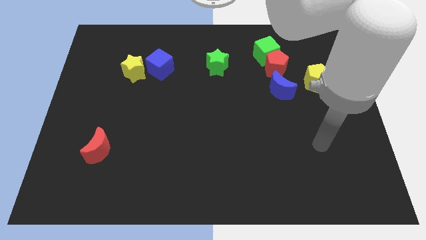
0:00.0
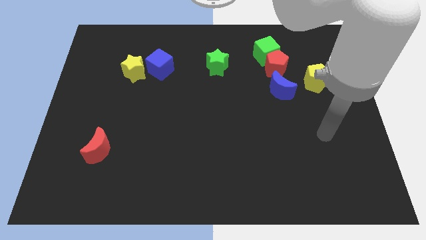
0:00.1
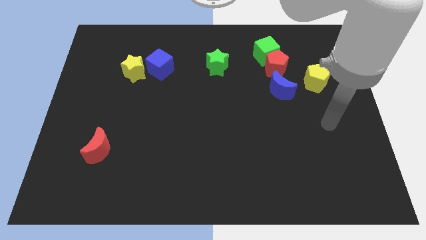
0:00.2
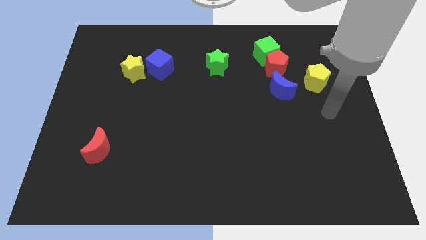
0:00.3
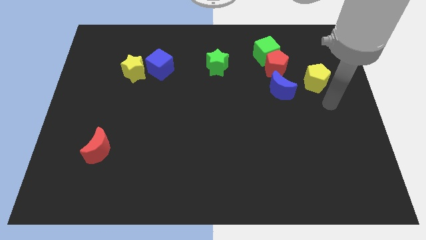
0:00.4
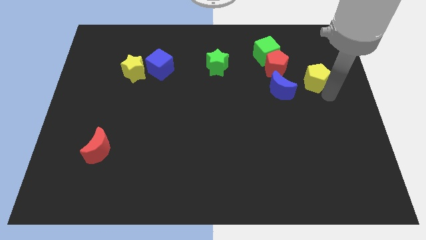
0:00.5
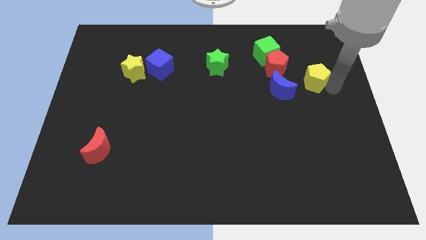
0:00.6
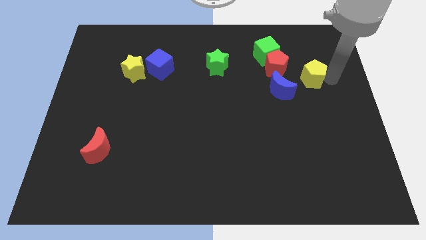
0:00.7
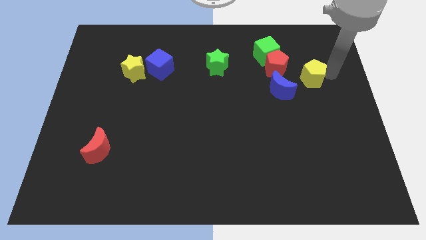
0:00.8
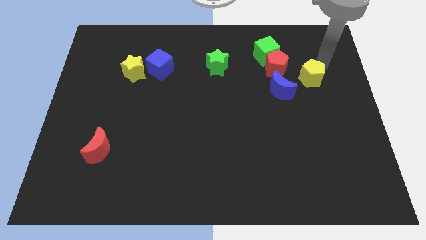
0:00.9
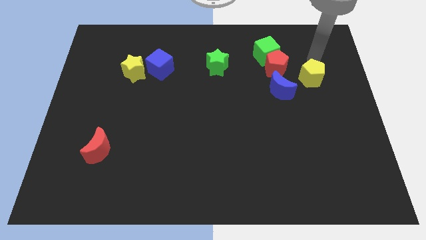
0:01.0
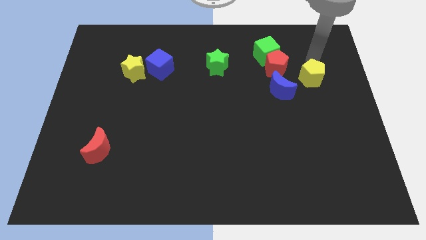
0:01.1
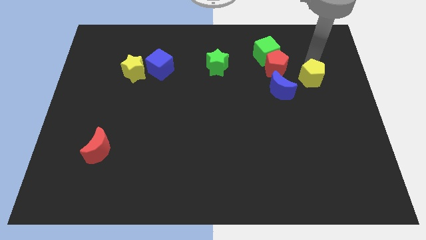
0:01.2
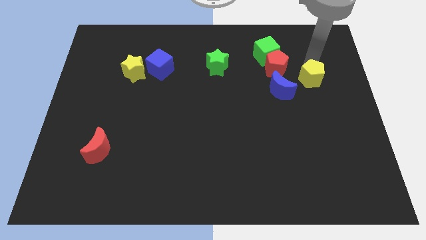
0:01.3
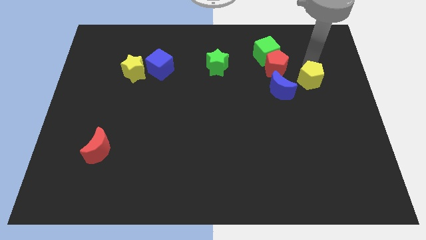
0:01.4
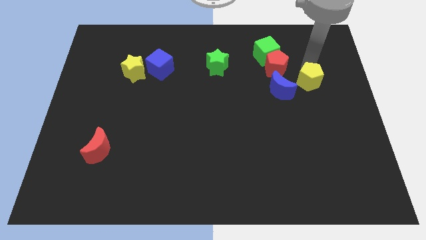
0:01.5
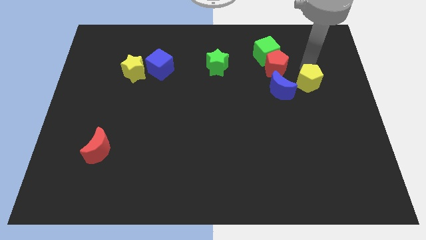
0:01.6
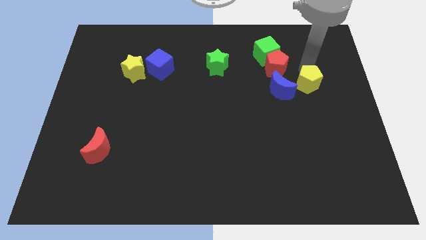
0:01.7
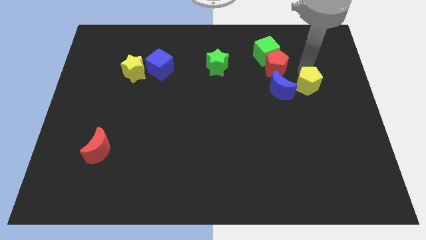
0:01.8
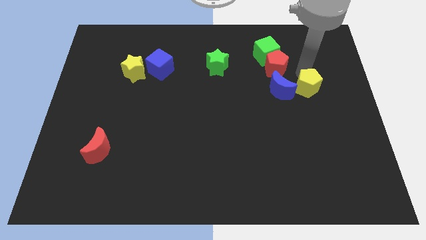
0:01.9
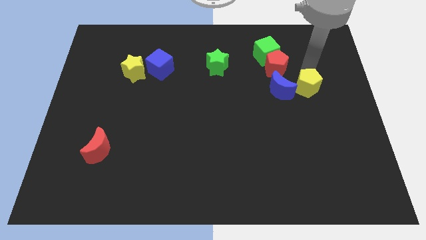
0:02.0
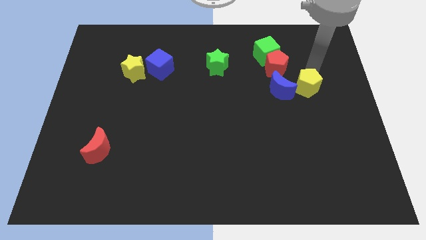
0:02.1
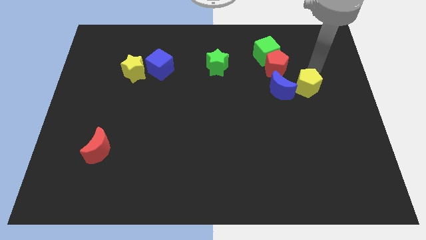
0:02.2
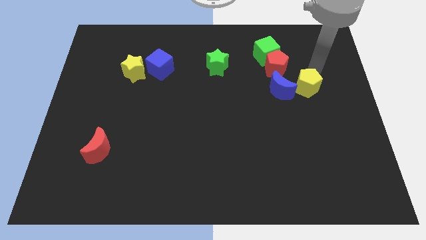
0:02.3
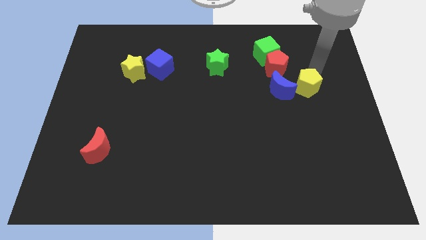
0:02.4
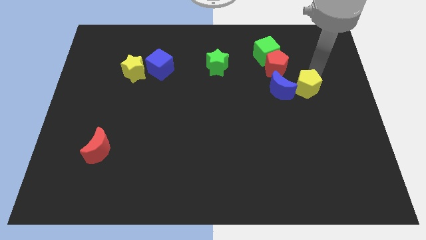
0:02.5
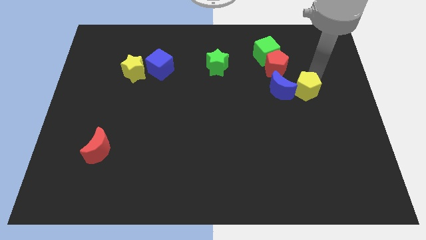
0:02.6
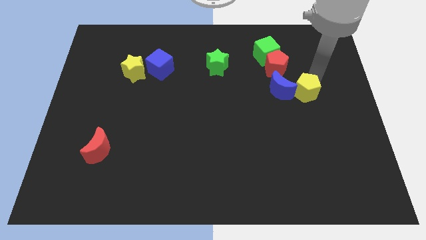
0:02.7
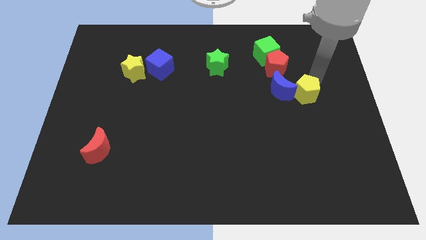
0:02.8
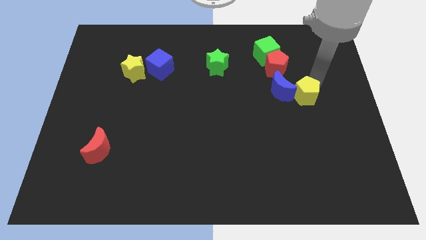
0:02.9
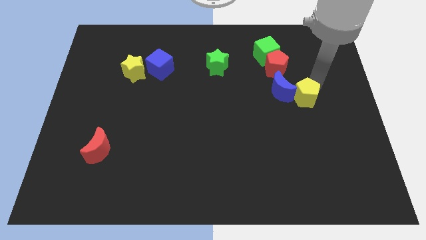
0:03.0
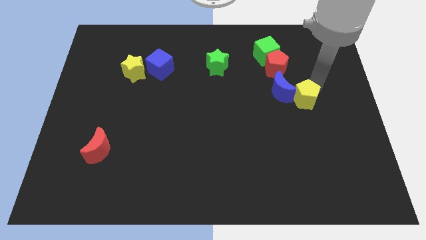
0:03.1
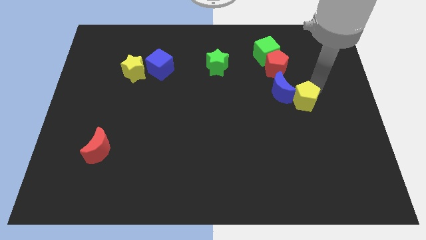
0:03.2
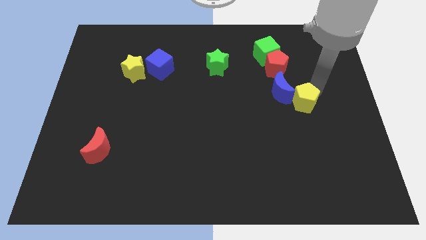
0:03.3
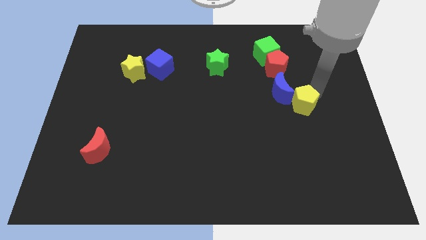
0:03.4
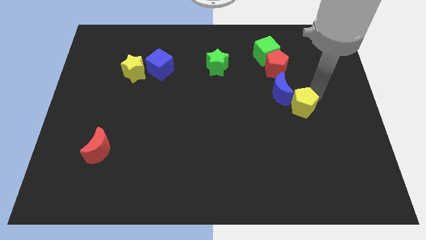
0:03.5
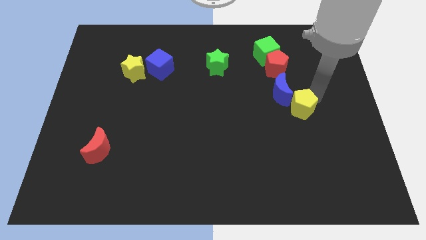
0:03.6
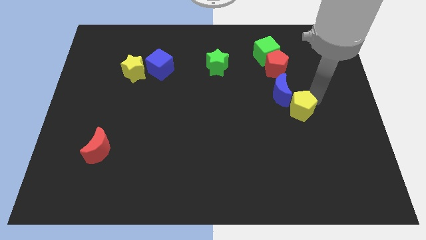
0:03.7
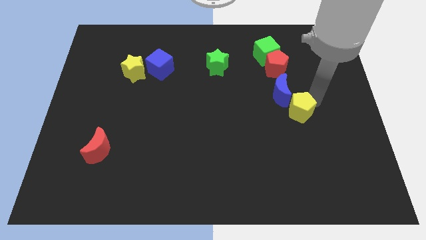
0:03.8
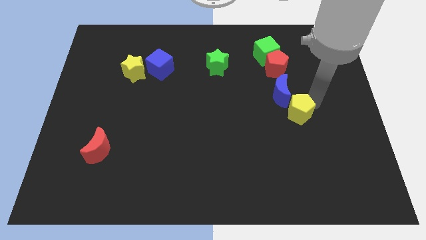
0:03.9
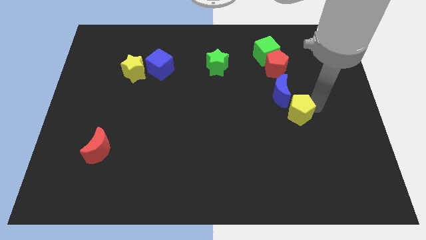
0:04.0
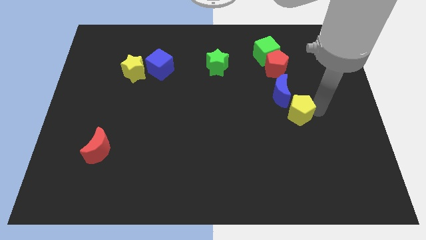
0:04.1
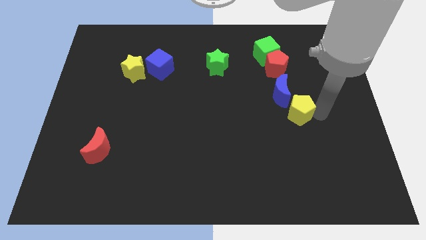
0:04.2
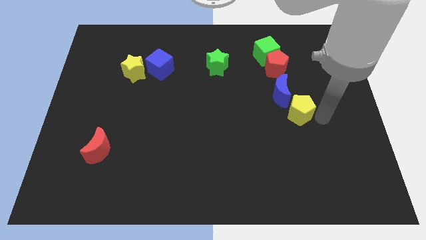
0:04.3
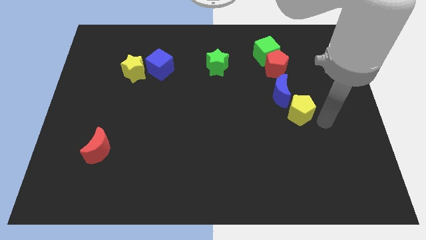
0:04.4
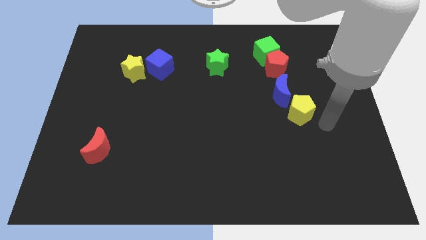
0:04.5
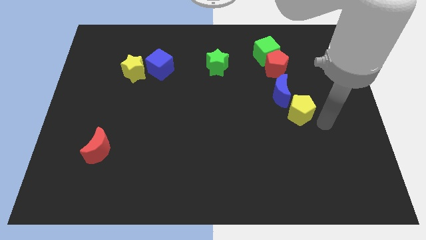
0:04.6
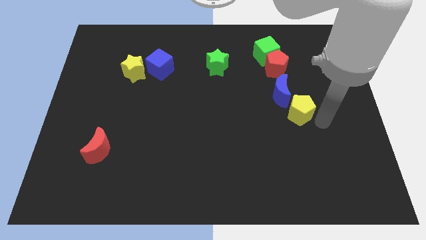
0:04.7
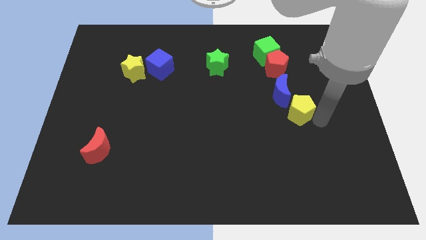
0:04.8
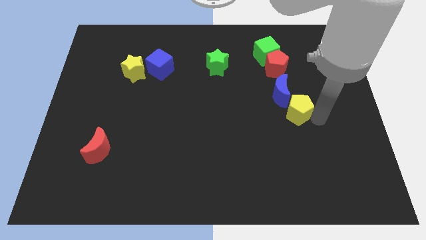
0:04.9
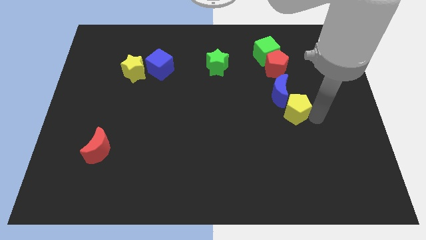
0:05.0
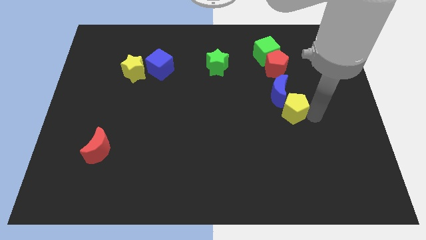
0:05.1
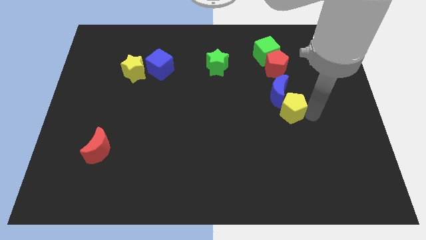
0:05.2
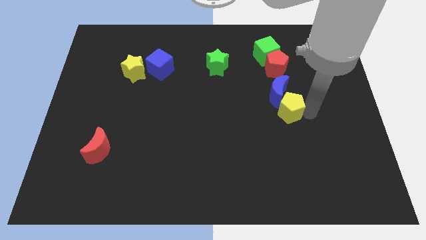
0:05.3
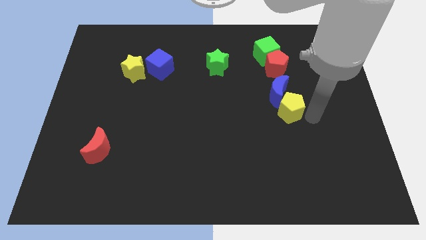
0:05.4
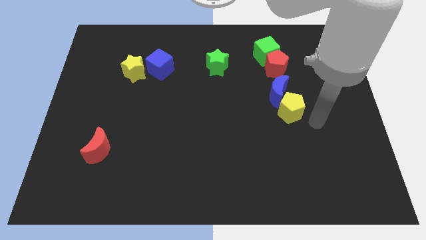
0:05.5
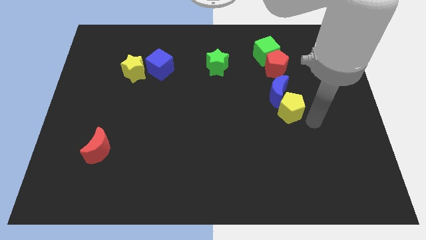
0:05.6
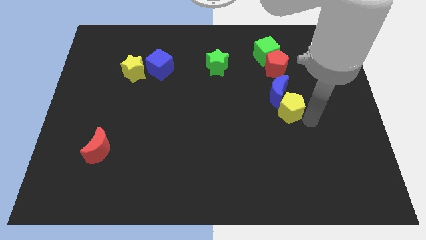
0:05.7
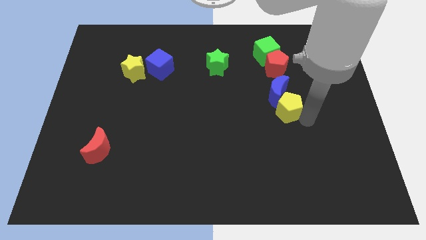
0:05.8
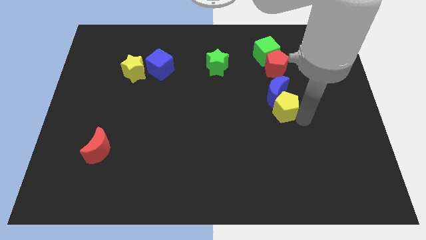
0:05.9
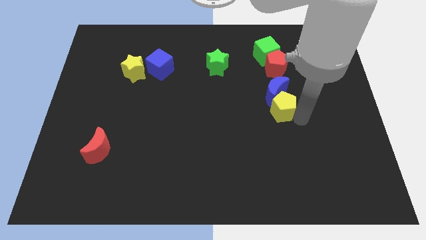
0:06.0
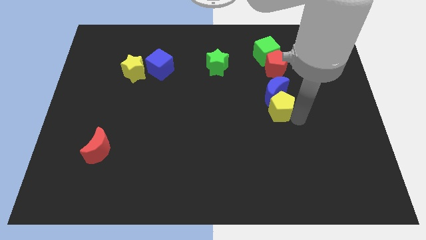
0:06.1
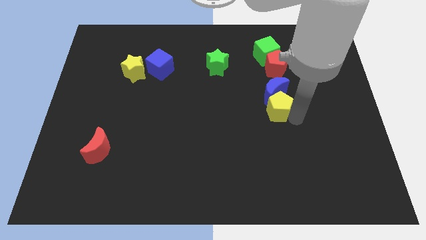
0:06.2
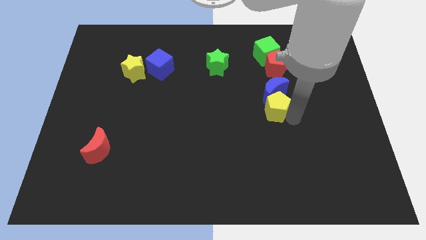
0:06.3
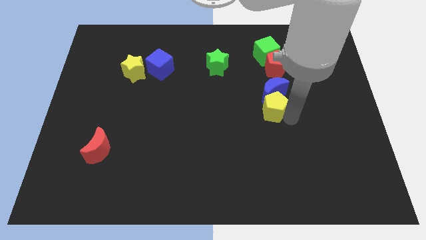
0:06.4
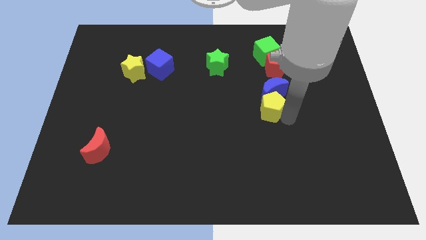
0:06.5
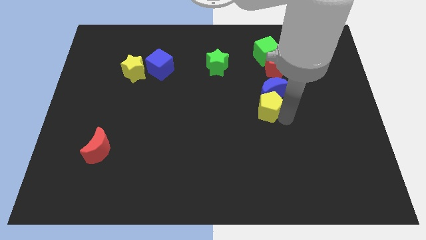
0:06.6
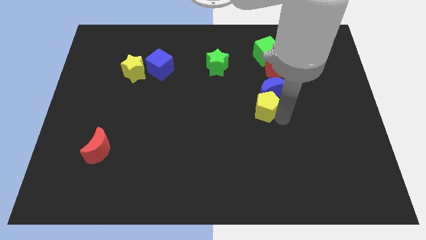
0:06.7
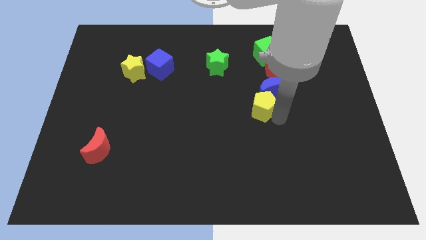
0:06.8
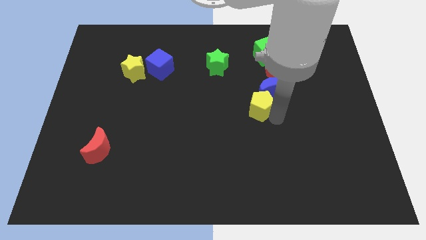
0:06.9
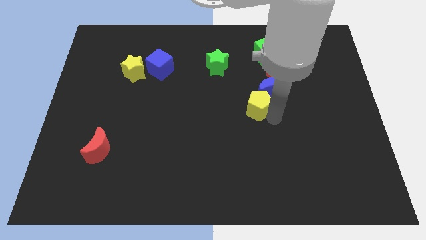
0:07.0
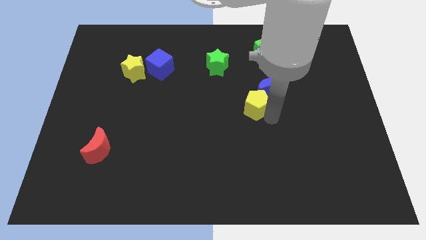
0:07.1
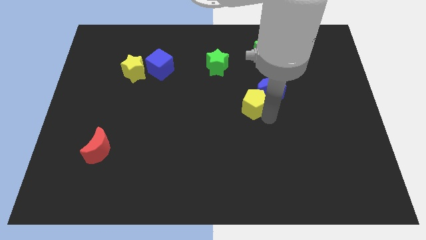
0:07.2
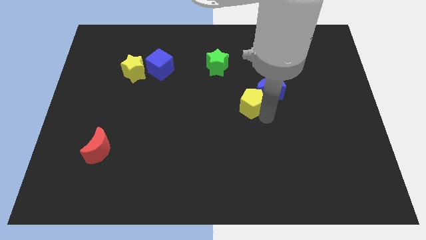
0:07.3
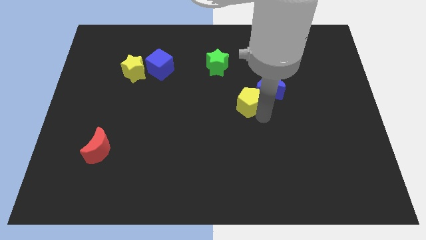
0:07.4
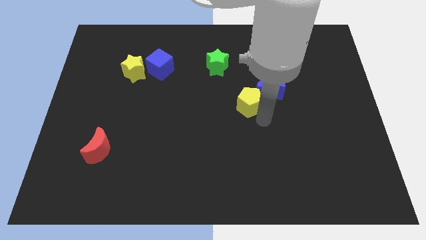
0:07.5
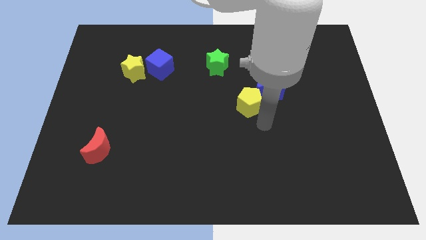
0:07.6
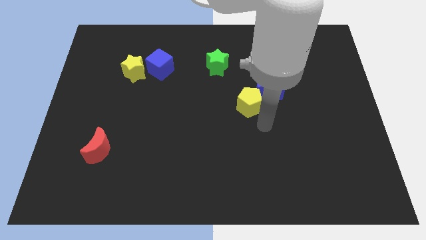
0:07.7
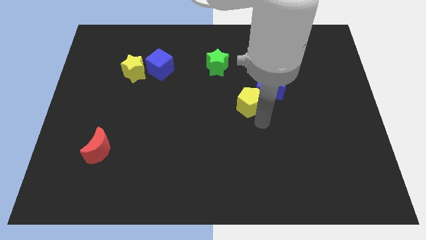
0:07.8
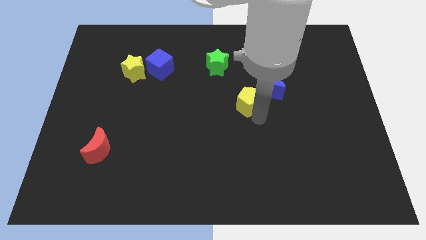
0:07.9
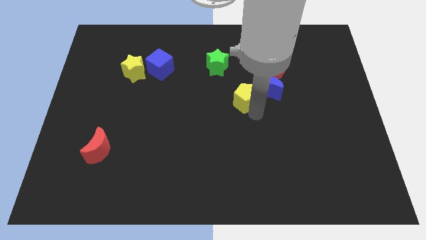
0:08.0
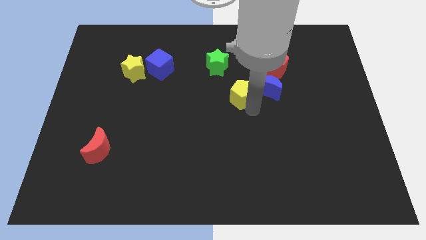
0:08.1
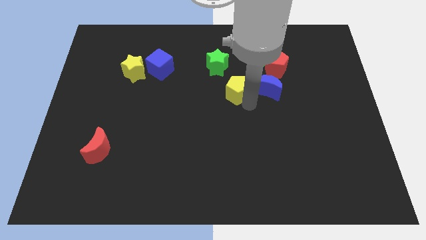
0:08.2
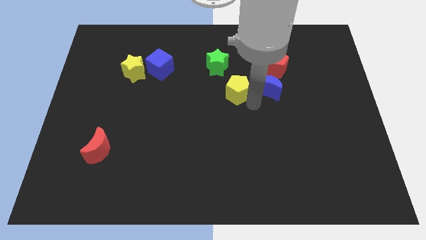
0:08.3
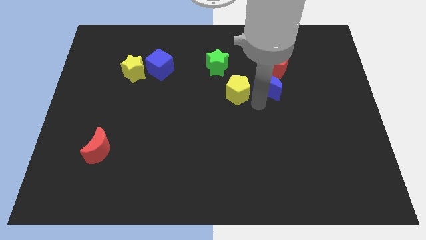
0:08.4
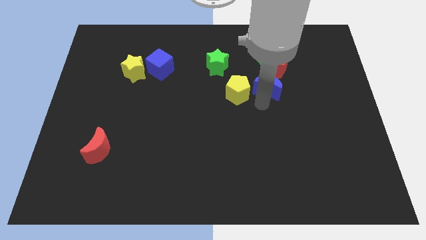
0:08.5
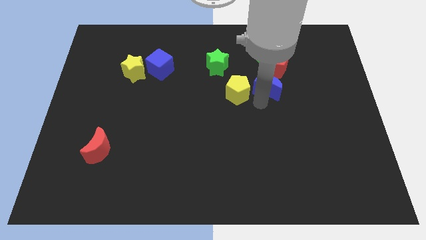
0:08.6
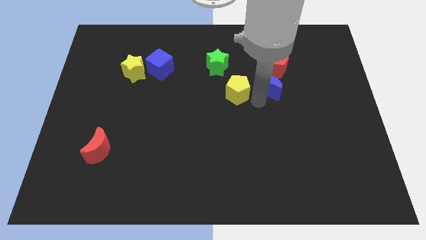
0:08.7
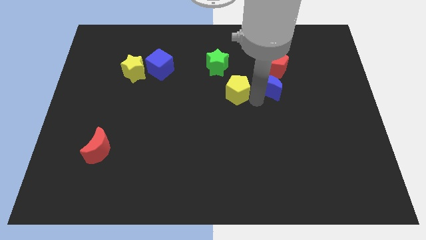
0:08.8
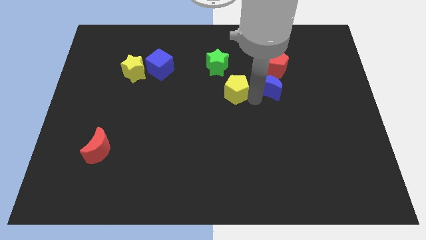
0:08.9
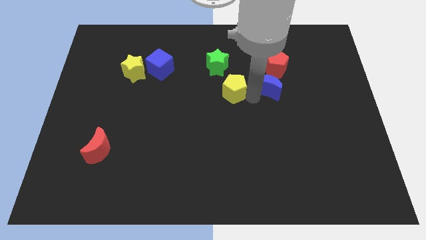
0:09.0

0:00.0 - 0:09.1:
slide the yellow pentagon left
